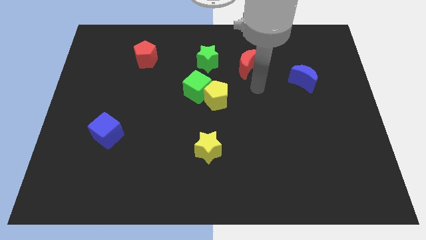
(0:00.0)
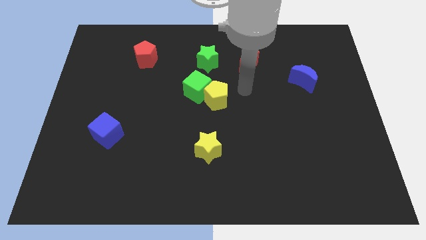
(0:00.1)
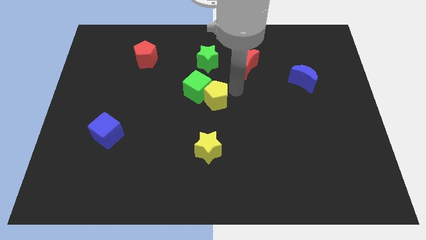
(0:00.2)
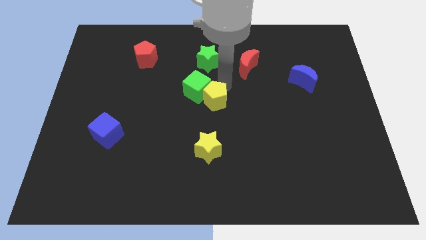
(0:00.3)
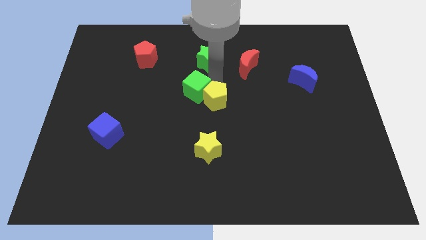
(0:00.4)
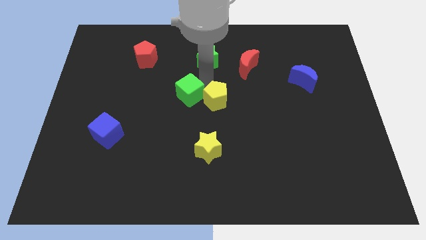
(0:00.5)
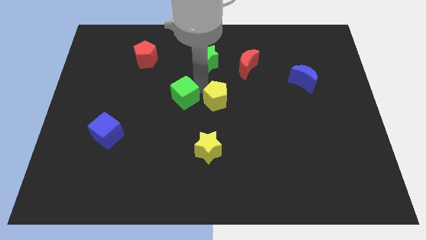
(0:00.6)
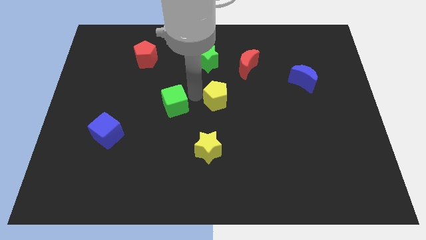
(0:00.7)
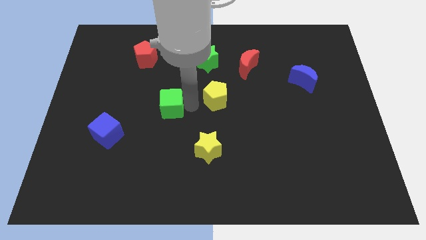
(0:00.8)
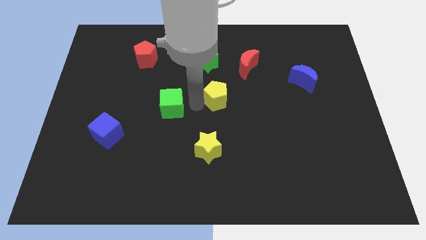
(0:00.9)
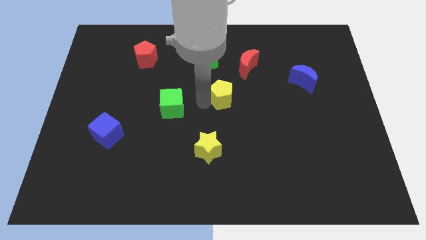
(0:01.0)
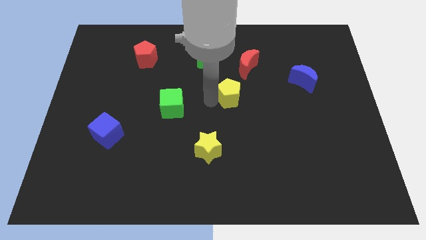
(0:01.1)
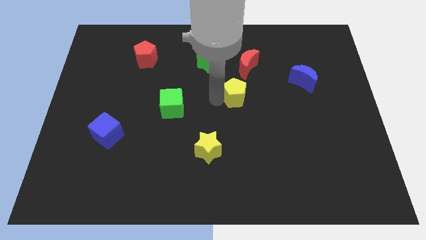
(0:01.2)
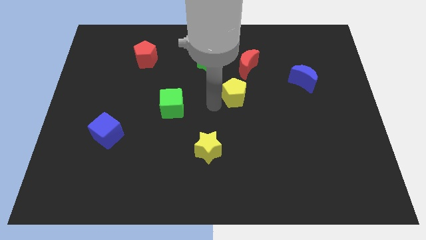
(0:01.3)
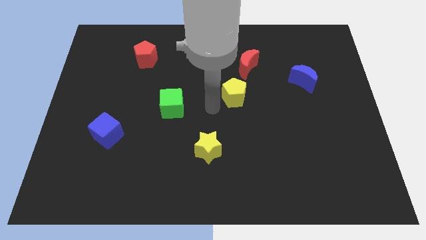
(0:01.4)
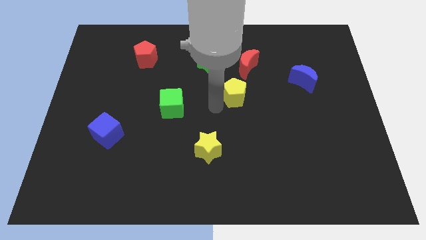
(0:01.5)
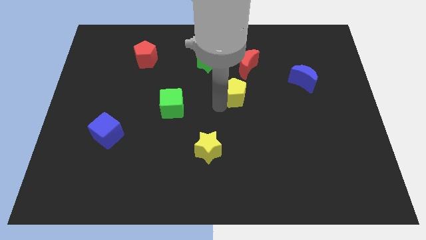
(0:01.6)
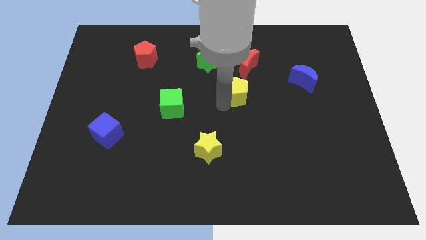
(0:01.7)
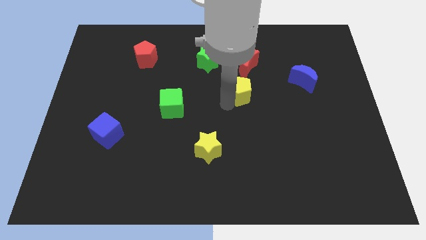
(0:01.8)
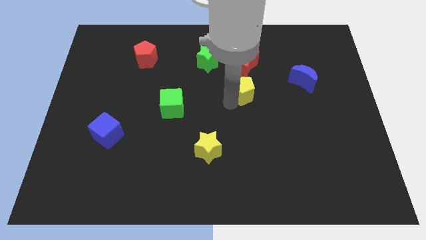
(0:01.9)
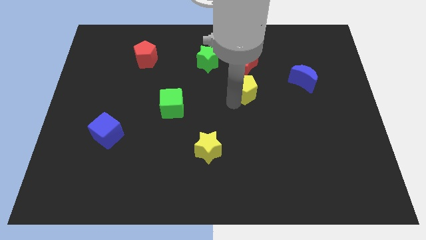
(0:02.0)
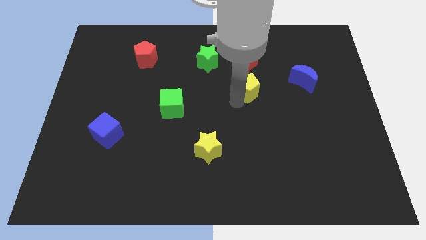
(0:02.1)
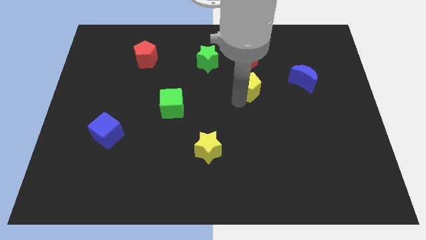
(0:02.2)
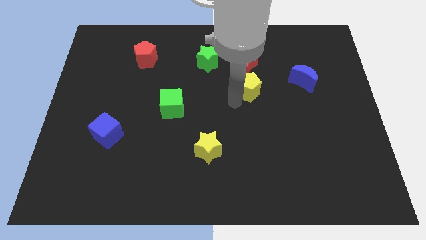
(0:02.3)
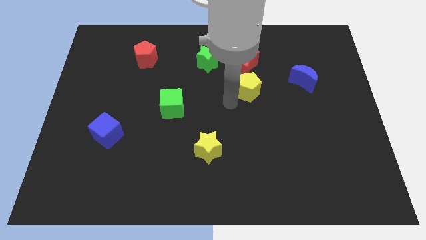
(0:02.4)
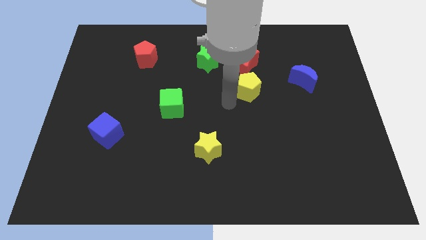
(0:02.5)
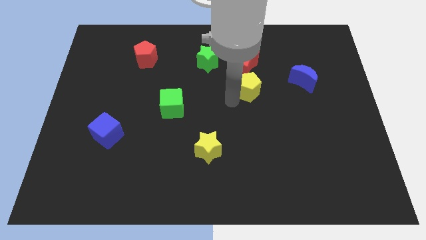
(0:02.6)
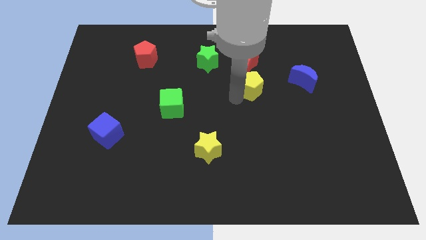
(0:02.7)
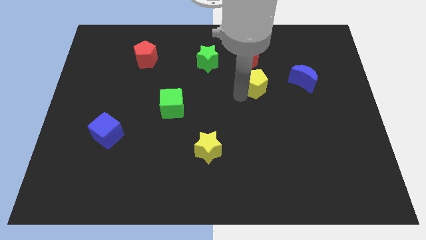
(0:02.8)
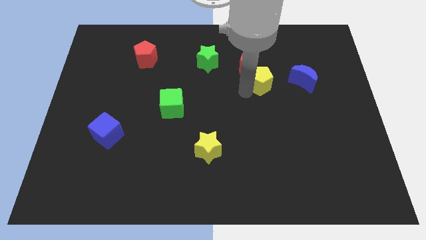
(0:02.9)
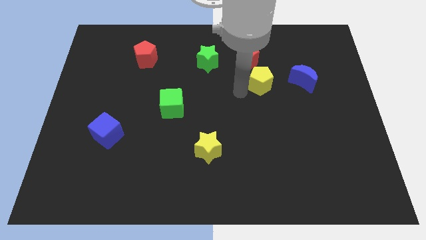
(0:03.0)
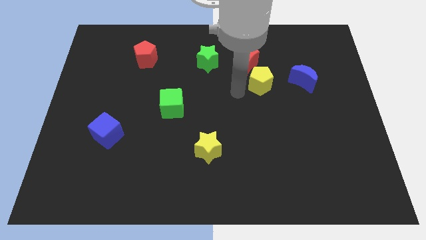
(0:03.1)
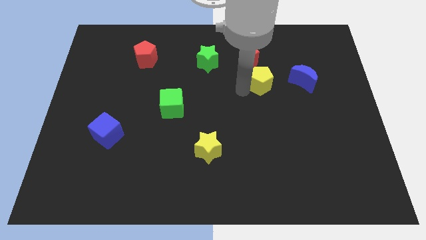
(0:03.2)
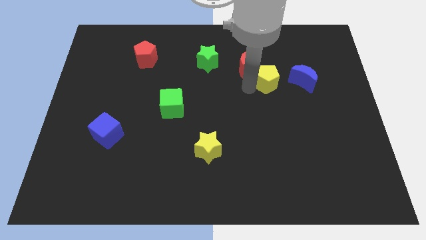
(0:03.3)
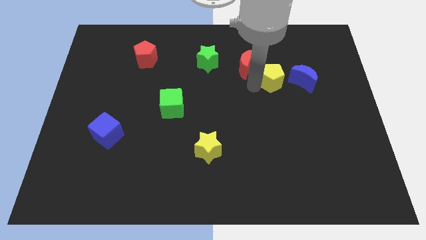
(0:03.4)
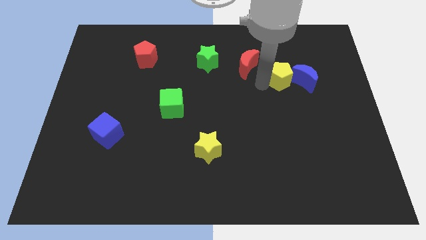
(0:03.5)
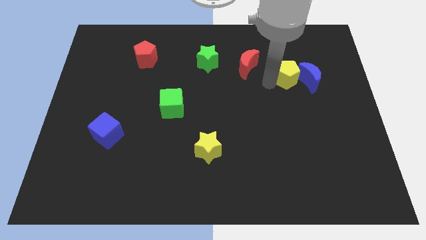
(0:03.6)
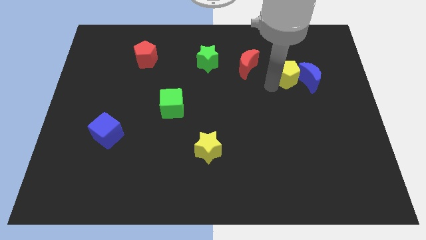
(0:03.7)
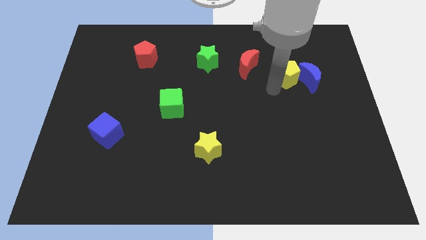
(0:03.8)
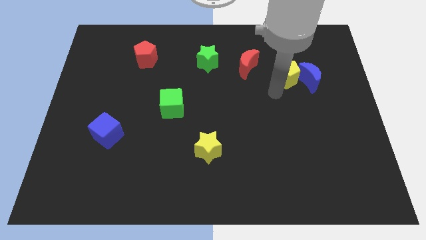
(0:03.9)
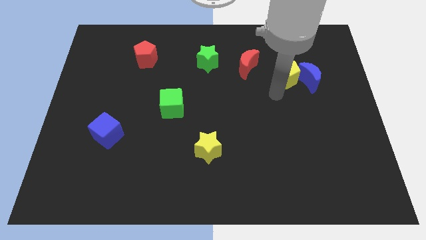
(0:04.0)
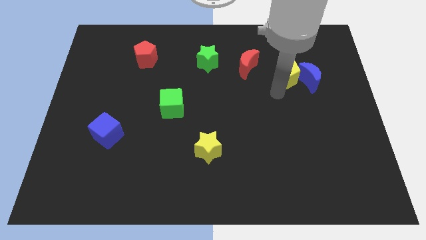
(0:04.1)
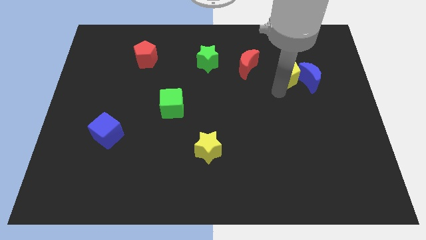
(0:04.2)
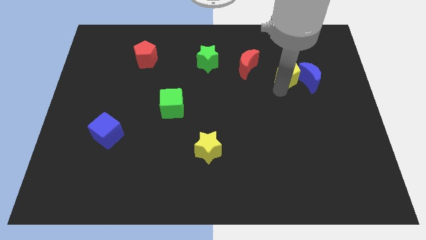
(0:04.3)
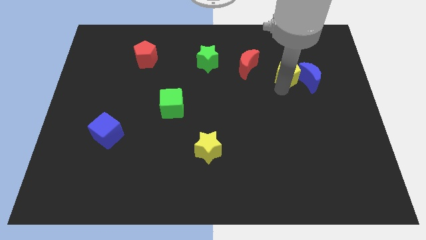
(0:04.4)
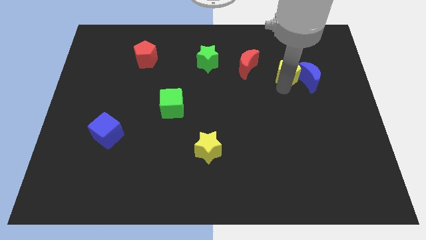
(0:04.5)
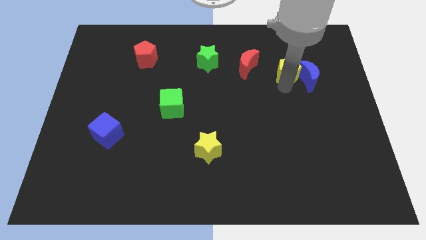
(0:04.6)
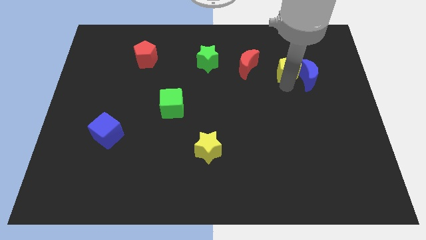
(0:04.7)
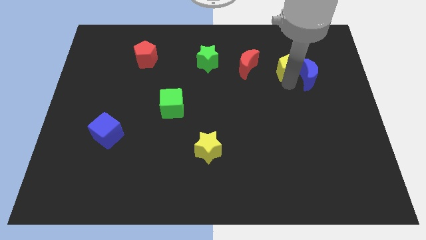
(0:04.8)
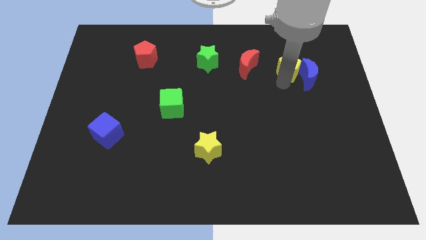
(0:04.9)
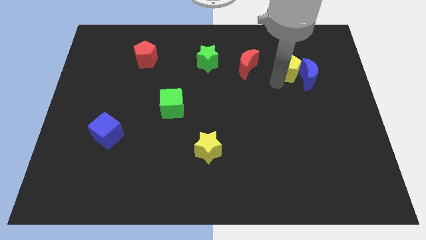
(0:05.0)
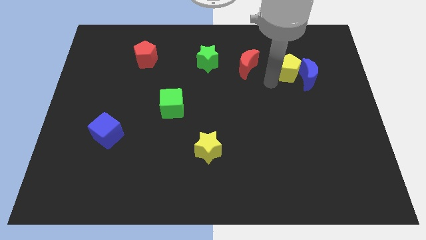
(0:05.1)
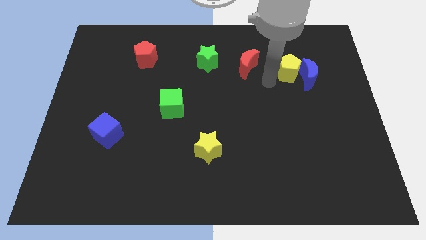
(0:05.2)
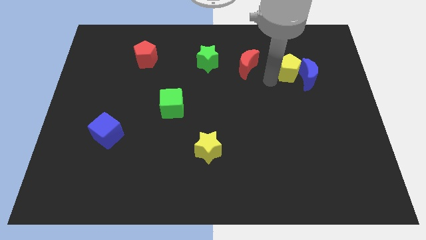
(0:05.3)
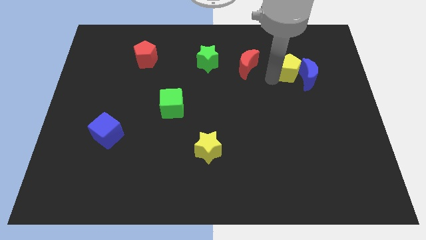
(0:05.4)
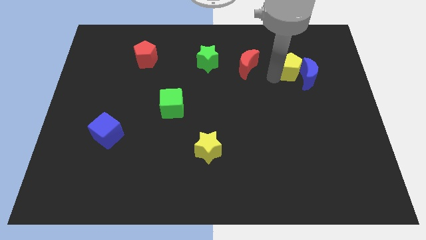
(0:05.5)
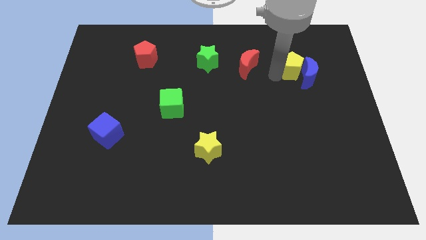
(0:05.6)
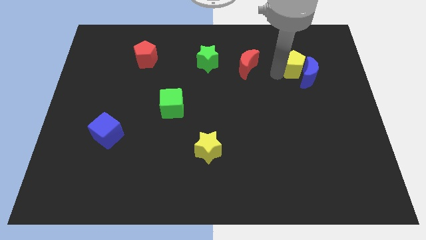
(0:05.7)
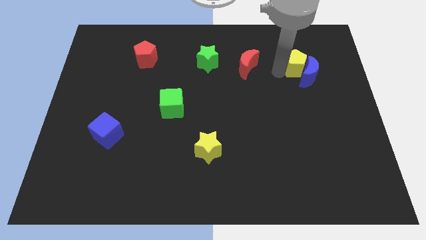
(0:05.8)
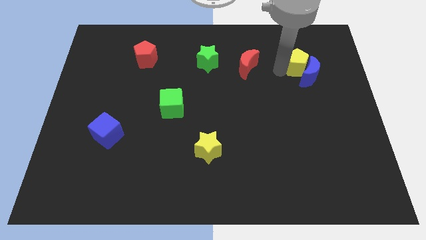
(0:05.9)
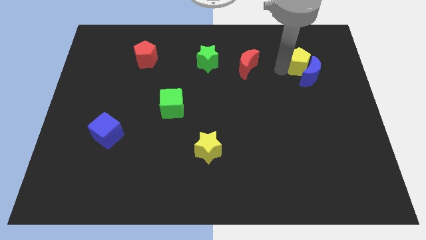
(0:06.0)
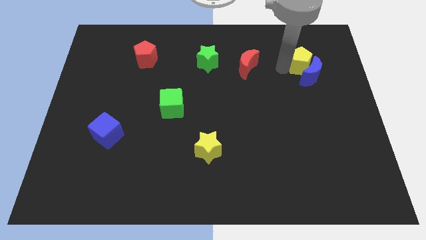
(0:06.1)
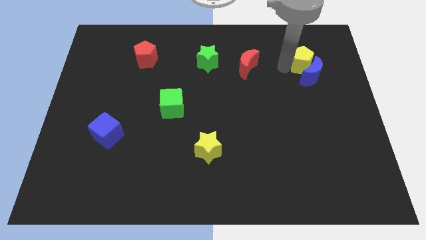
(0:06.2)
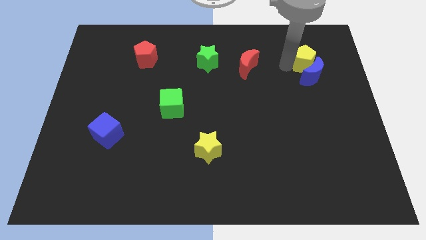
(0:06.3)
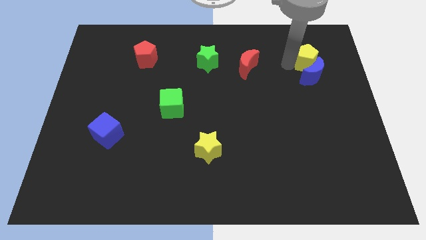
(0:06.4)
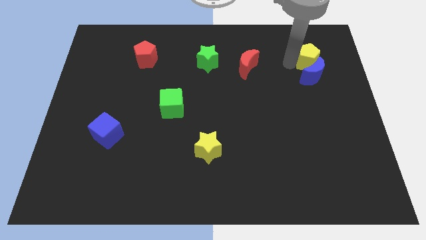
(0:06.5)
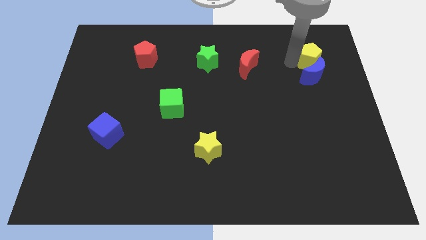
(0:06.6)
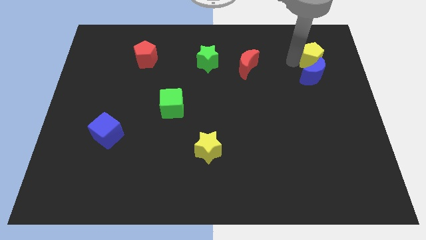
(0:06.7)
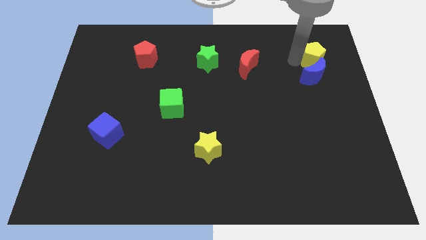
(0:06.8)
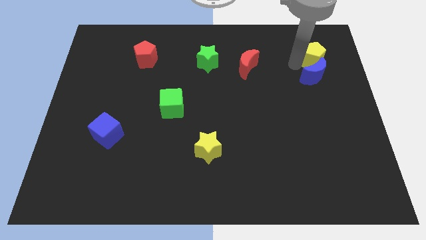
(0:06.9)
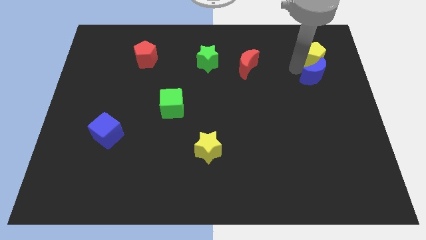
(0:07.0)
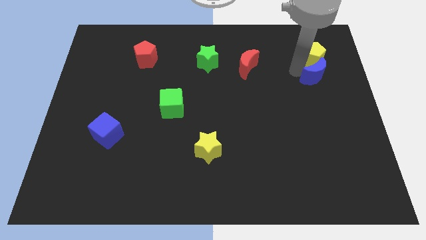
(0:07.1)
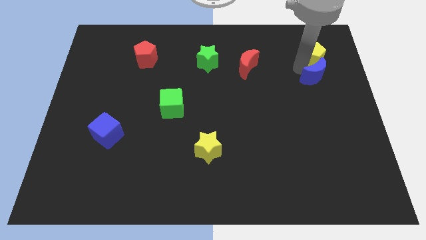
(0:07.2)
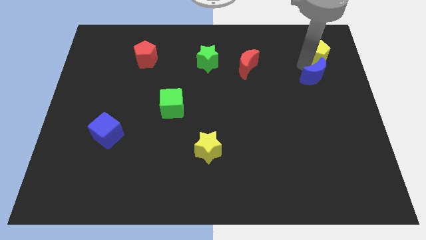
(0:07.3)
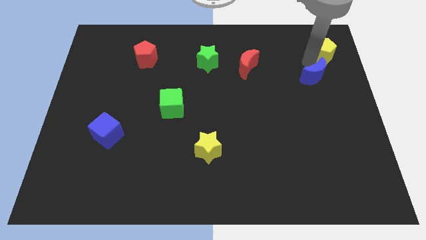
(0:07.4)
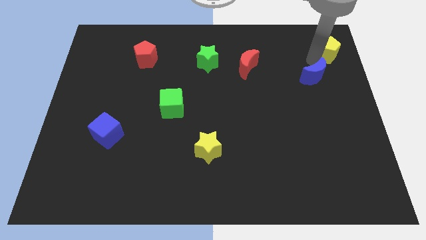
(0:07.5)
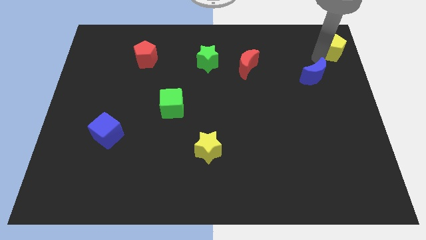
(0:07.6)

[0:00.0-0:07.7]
push the yellow pentagon to the top right
